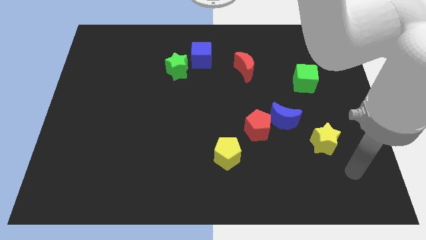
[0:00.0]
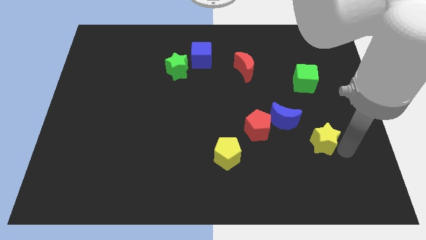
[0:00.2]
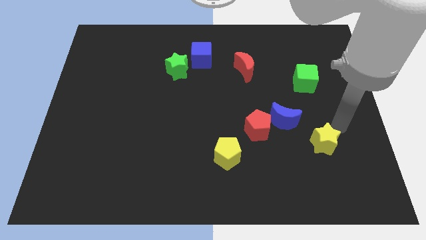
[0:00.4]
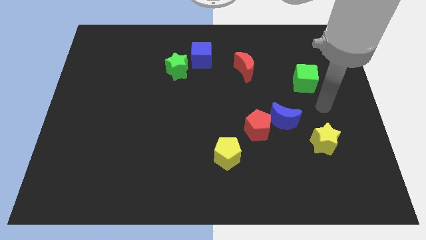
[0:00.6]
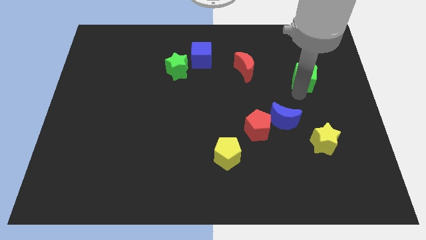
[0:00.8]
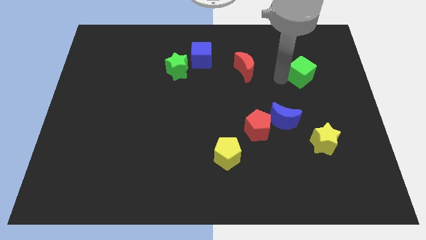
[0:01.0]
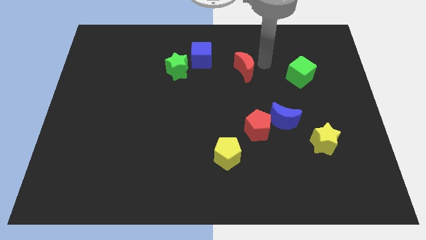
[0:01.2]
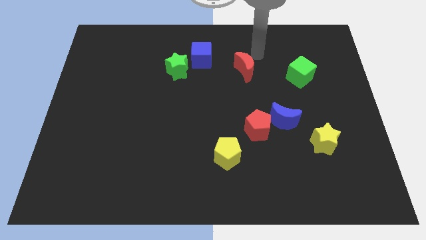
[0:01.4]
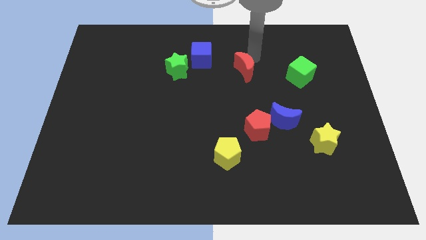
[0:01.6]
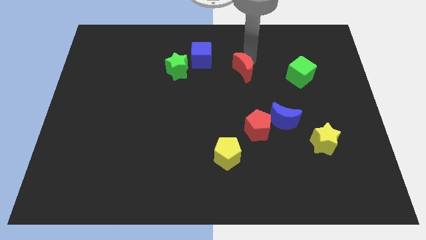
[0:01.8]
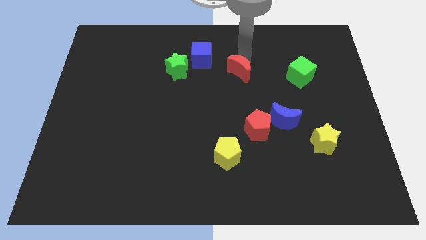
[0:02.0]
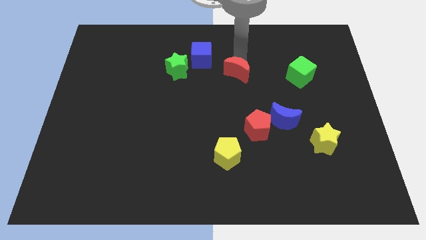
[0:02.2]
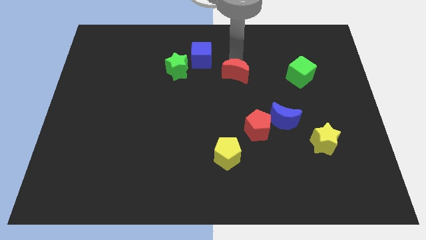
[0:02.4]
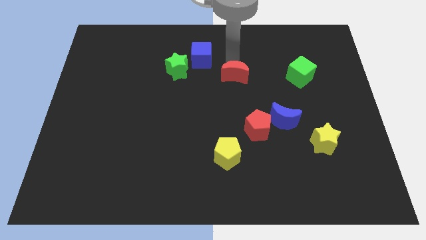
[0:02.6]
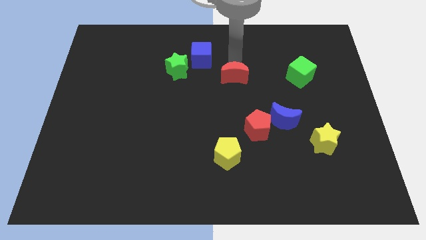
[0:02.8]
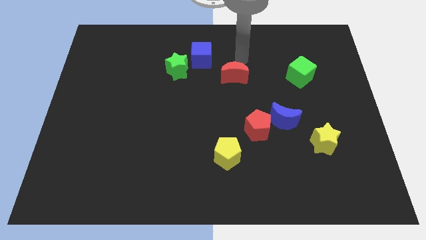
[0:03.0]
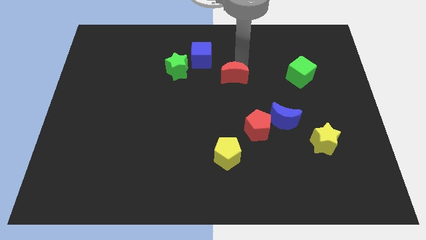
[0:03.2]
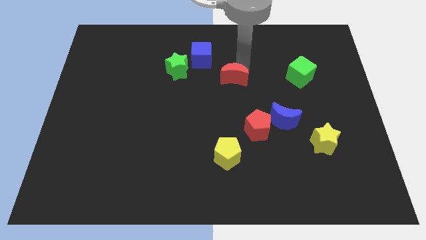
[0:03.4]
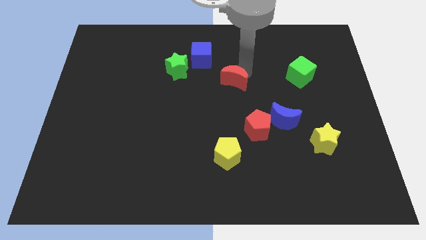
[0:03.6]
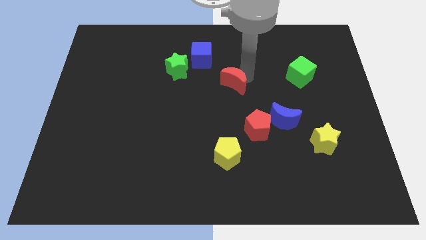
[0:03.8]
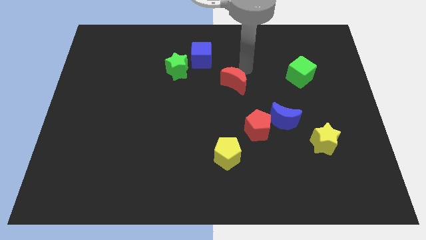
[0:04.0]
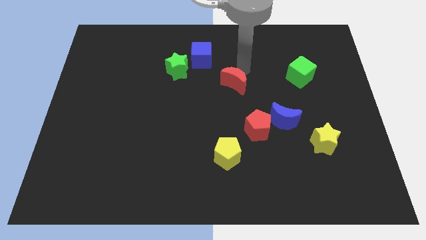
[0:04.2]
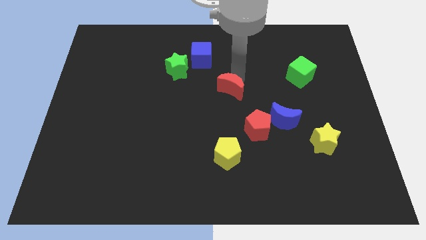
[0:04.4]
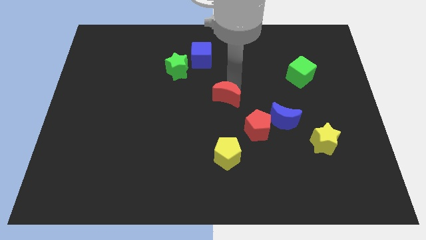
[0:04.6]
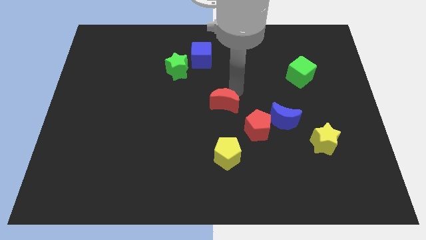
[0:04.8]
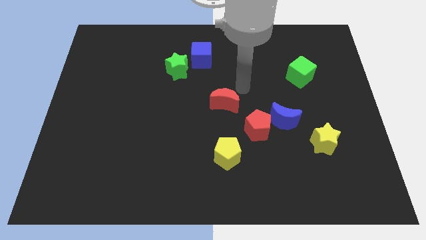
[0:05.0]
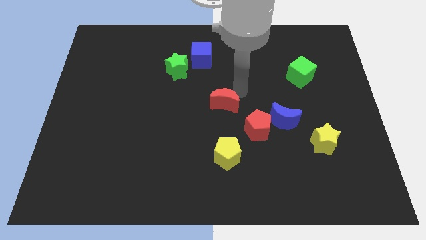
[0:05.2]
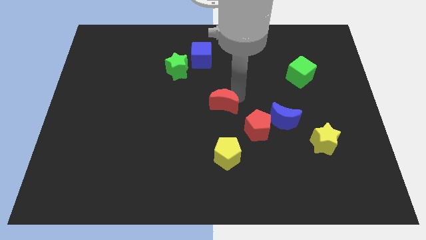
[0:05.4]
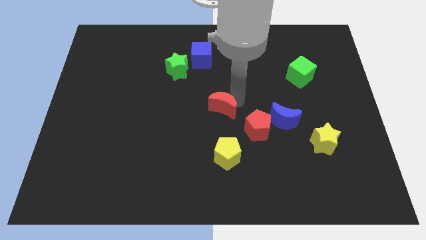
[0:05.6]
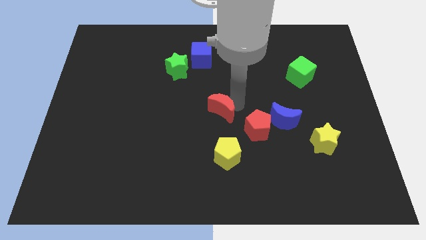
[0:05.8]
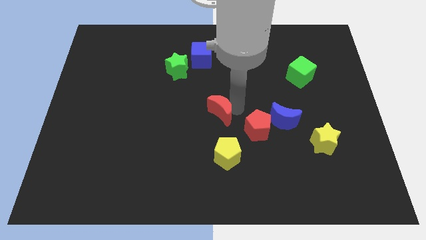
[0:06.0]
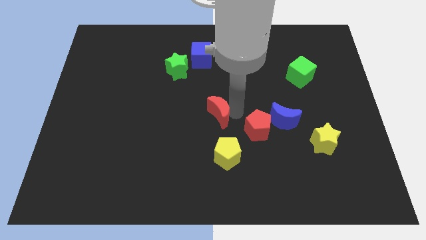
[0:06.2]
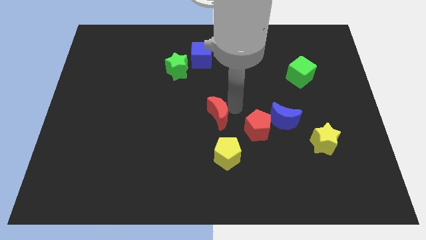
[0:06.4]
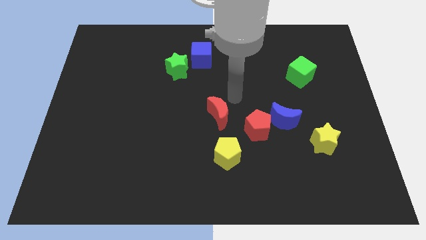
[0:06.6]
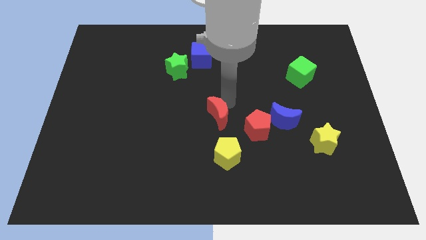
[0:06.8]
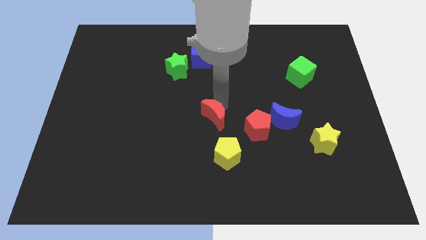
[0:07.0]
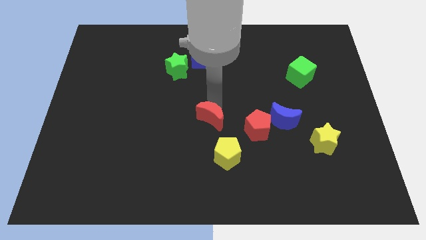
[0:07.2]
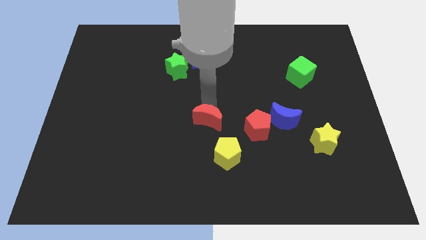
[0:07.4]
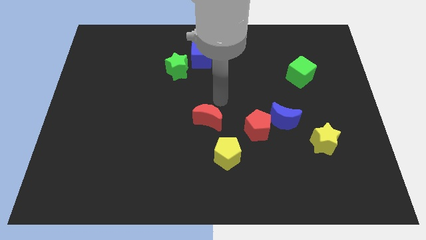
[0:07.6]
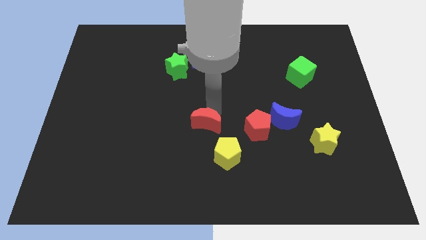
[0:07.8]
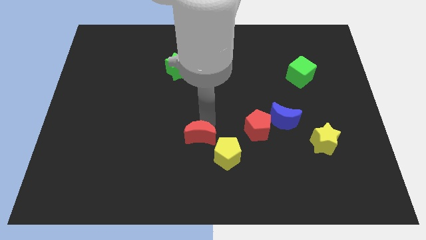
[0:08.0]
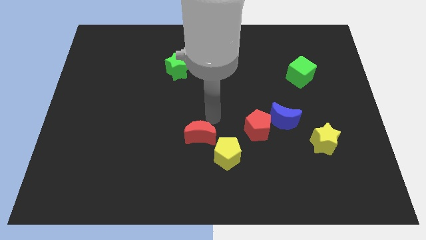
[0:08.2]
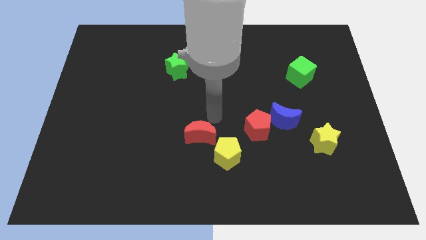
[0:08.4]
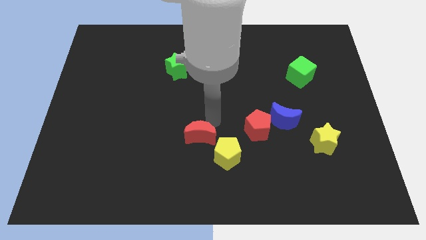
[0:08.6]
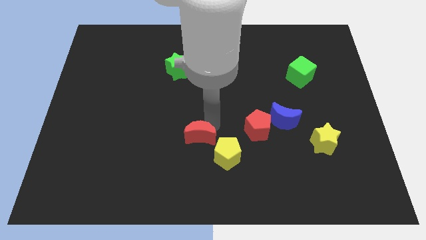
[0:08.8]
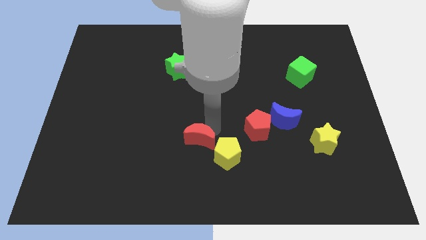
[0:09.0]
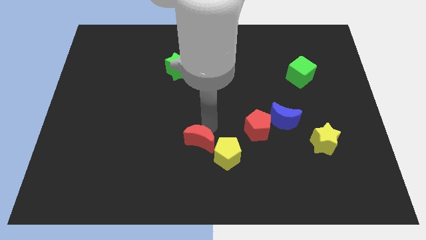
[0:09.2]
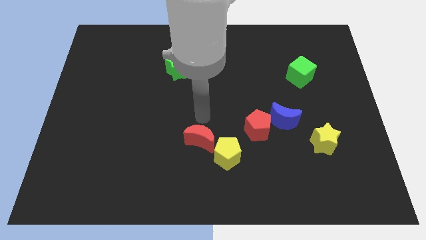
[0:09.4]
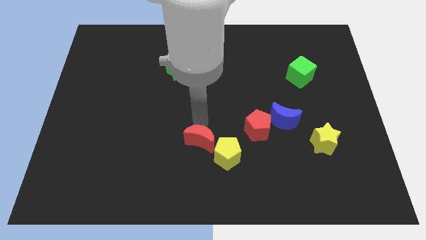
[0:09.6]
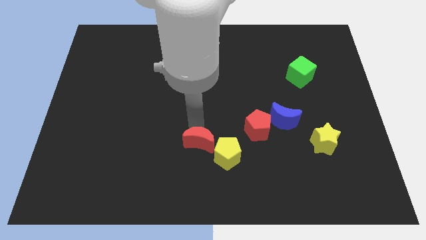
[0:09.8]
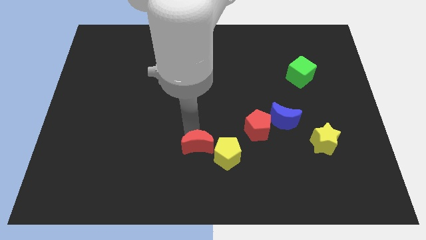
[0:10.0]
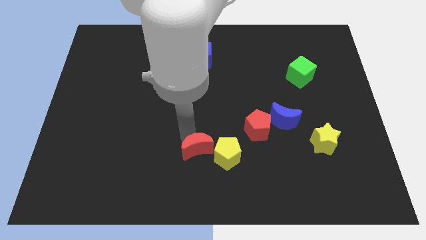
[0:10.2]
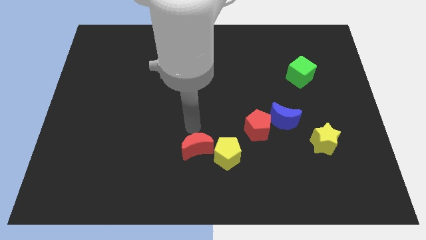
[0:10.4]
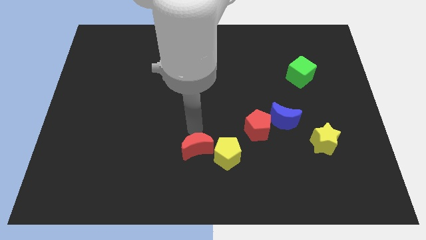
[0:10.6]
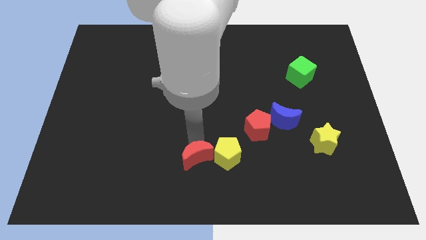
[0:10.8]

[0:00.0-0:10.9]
slide the red moon to the bottom
